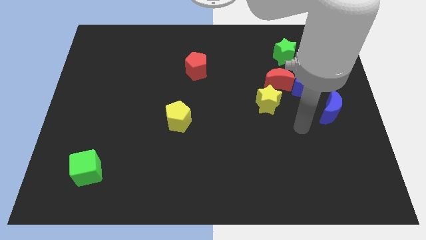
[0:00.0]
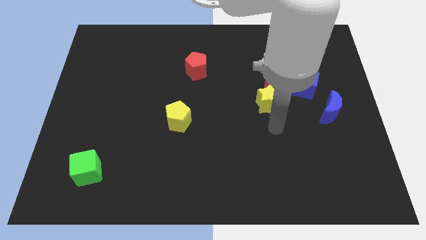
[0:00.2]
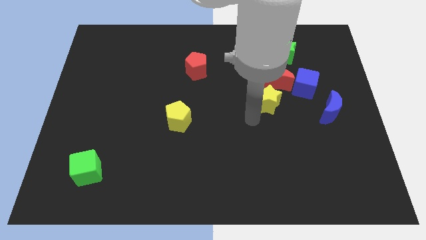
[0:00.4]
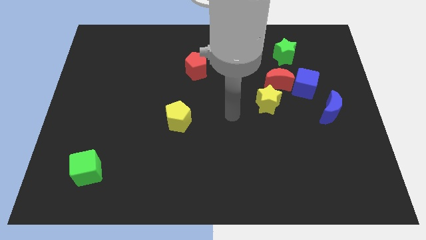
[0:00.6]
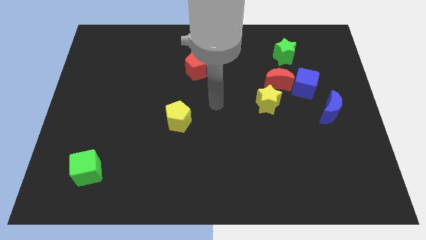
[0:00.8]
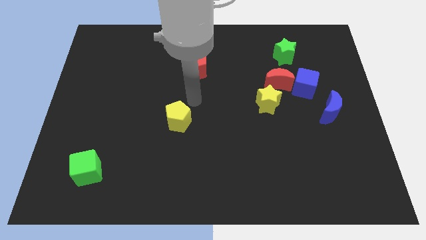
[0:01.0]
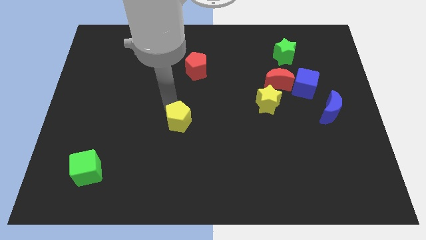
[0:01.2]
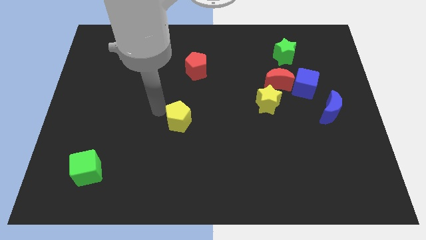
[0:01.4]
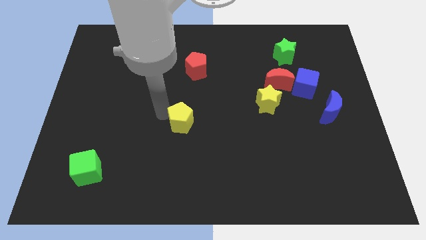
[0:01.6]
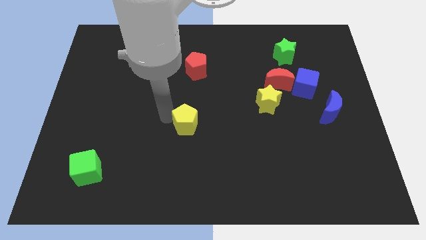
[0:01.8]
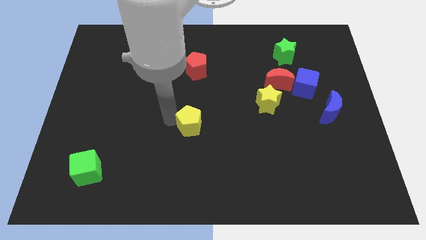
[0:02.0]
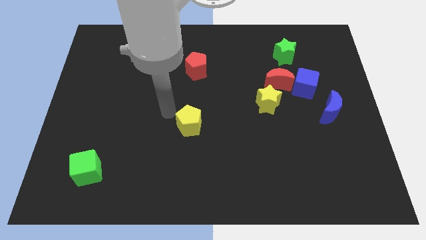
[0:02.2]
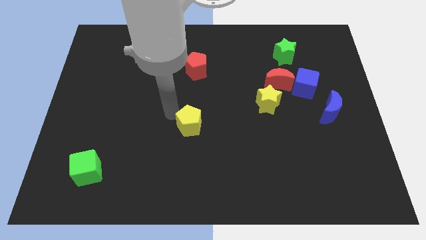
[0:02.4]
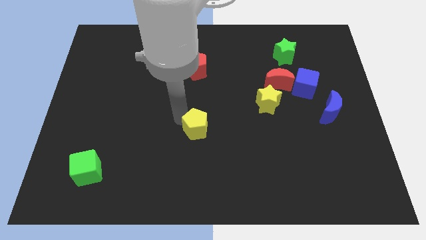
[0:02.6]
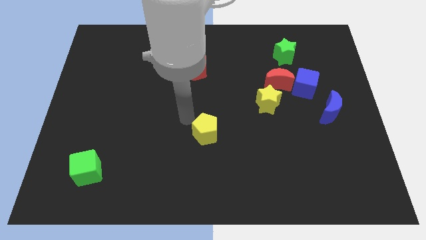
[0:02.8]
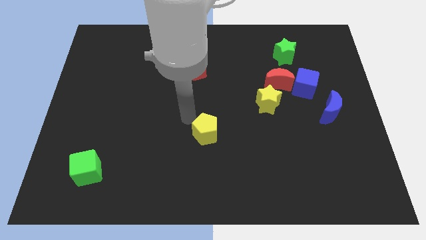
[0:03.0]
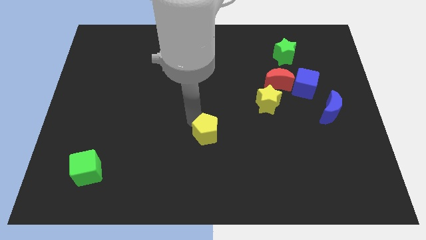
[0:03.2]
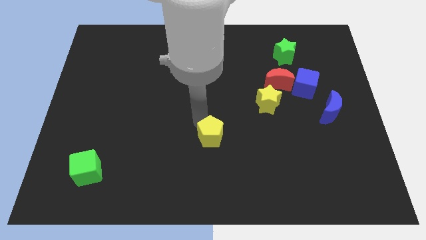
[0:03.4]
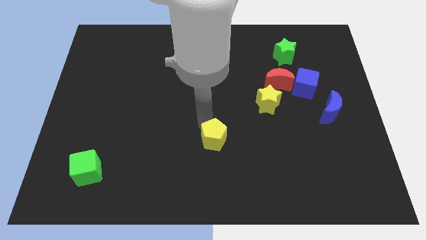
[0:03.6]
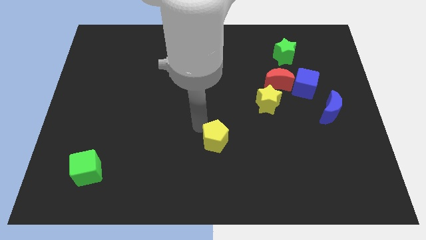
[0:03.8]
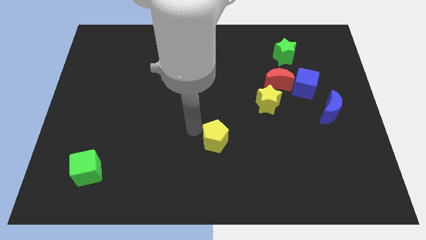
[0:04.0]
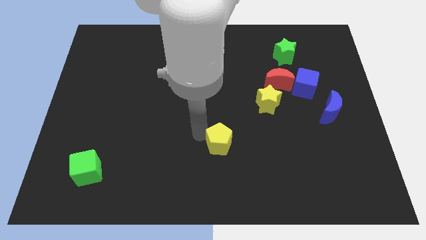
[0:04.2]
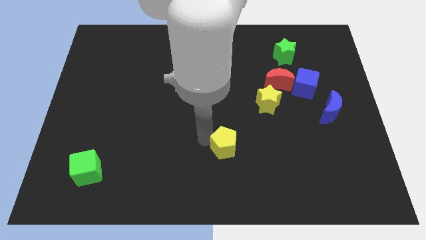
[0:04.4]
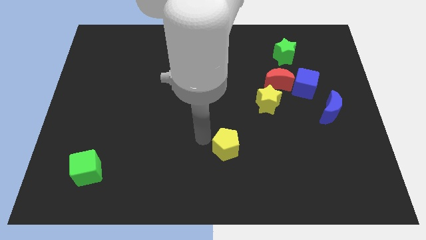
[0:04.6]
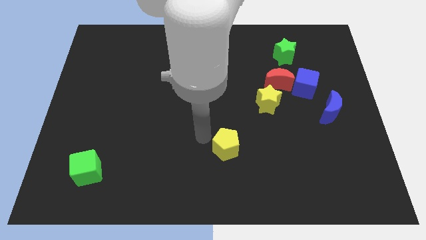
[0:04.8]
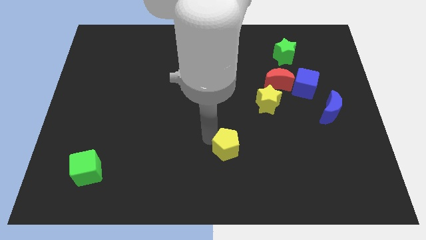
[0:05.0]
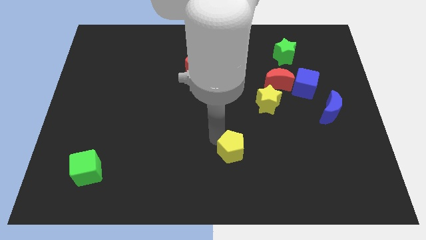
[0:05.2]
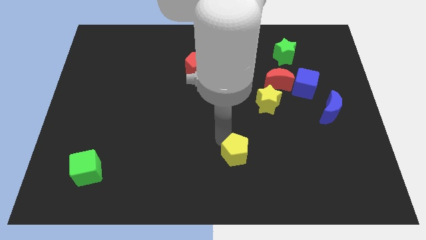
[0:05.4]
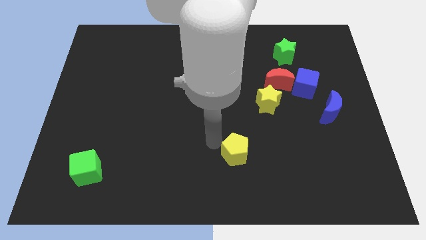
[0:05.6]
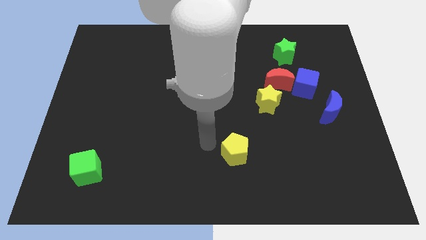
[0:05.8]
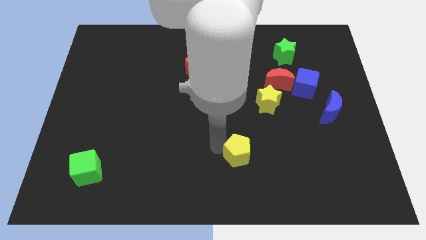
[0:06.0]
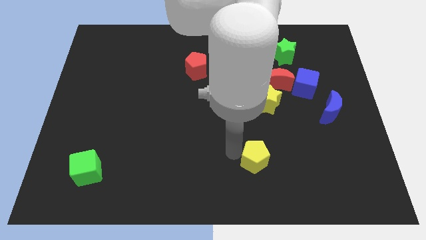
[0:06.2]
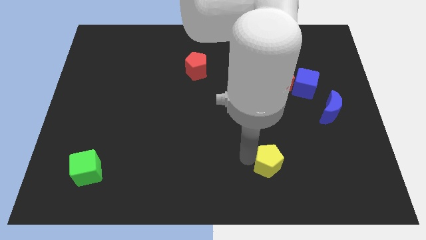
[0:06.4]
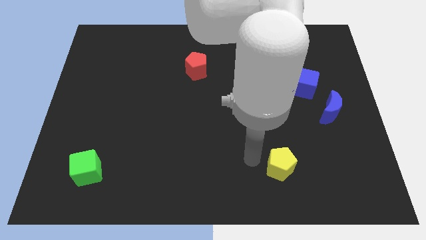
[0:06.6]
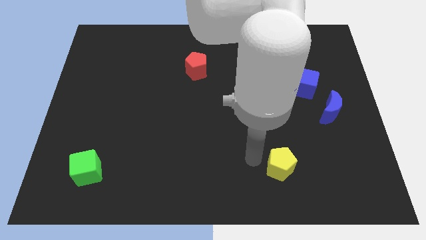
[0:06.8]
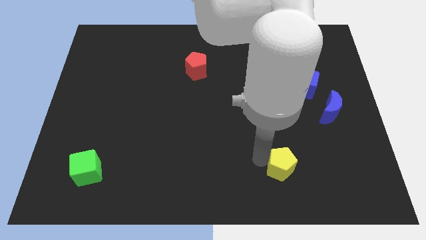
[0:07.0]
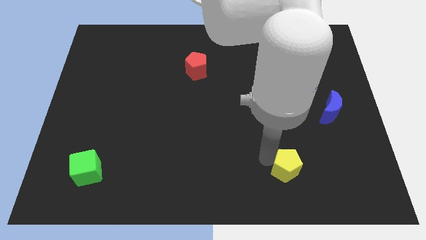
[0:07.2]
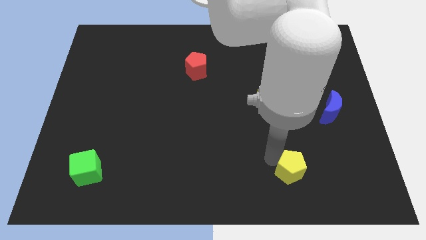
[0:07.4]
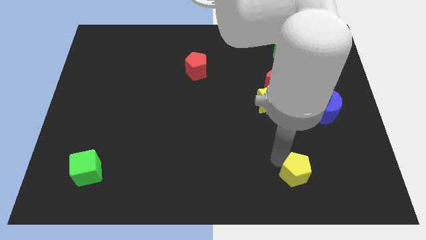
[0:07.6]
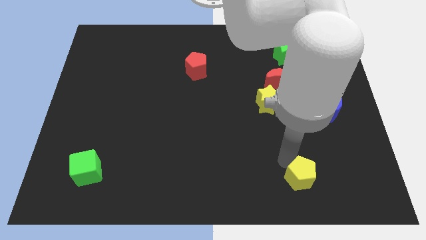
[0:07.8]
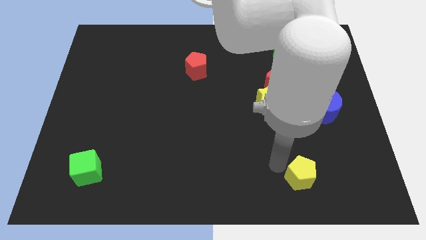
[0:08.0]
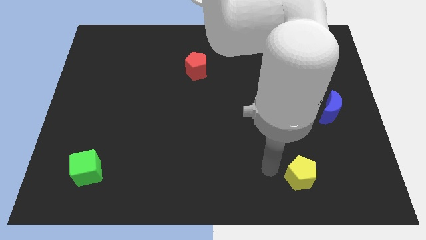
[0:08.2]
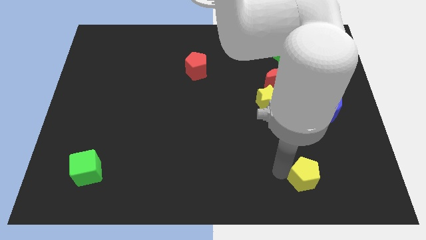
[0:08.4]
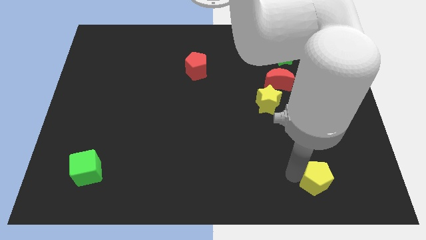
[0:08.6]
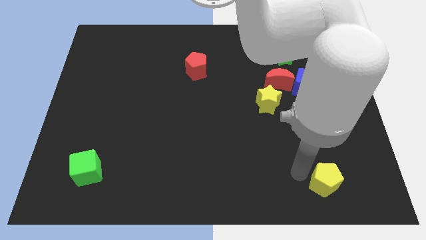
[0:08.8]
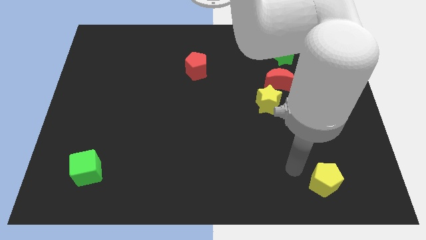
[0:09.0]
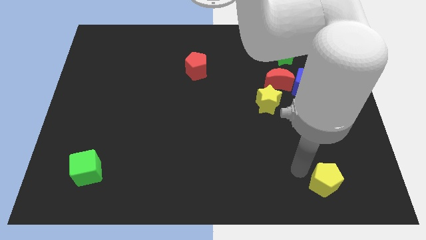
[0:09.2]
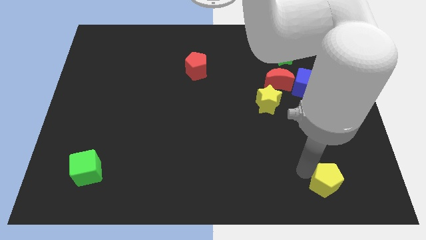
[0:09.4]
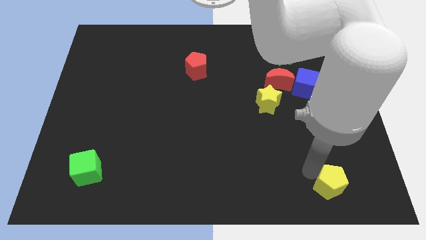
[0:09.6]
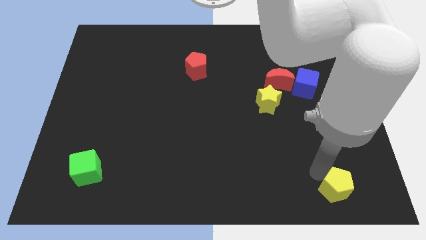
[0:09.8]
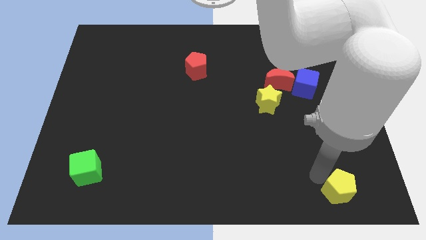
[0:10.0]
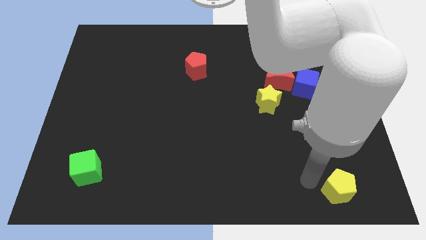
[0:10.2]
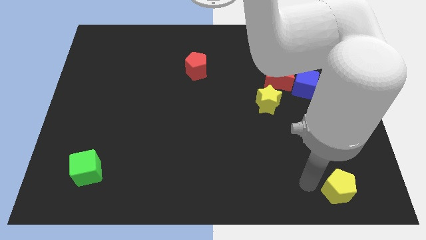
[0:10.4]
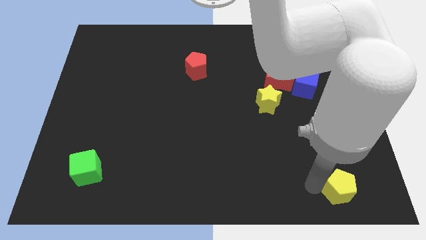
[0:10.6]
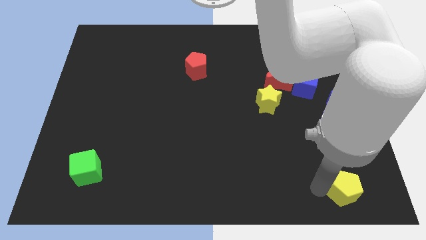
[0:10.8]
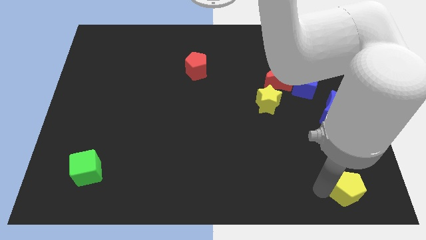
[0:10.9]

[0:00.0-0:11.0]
move the yellow pentagon to the lower right corner

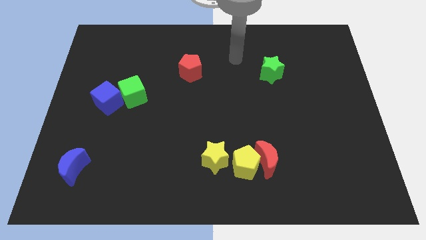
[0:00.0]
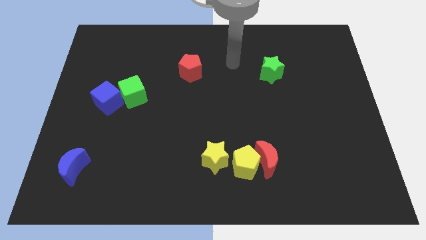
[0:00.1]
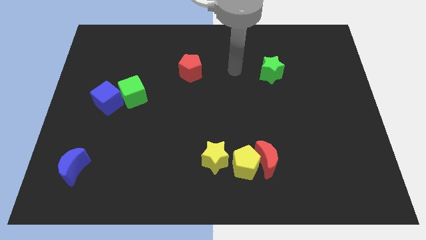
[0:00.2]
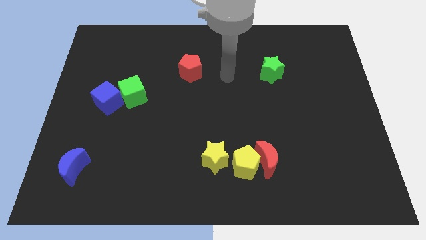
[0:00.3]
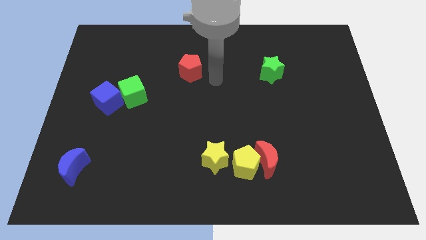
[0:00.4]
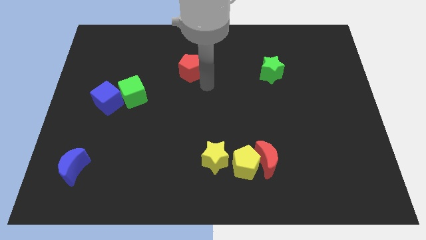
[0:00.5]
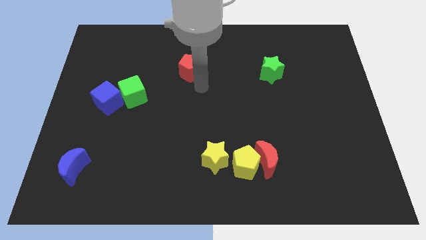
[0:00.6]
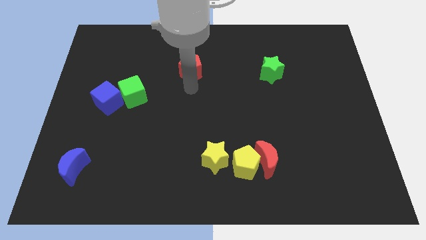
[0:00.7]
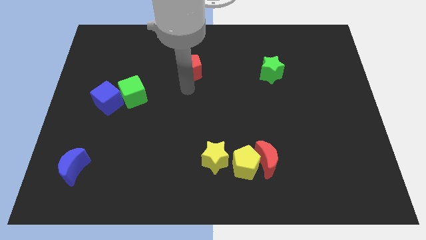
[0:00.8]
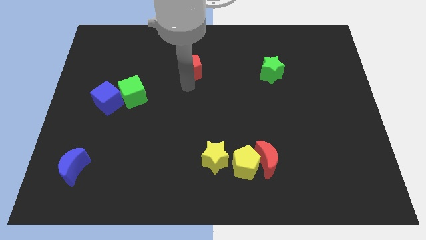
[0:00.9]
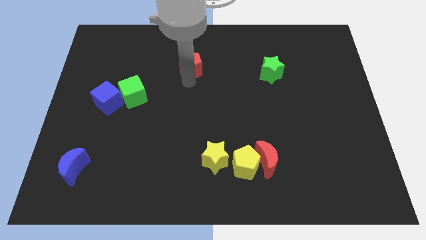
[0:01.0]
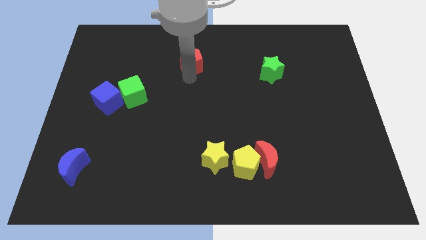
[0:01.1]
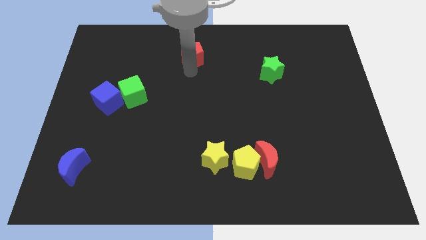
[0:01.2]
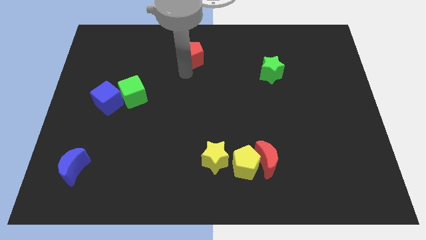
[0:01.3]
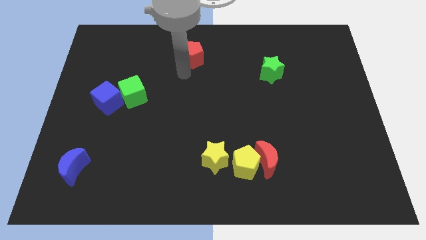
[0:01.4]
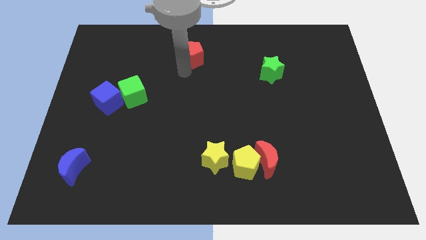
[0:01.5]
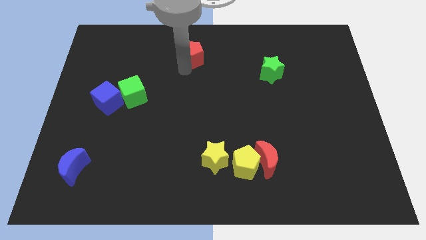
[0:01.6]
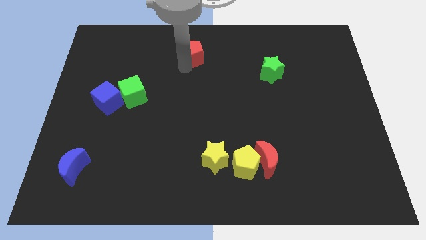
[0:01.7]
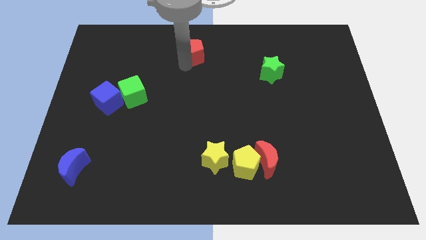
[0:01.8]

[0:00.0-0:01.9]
push the red pentagon to the towards your base

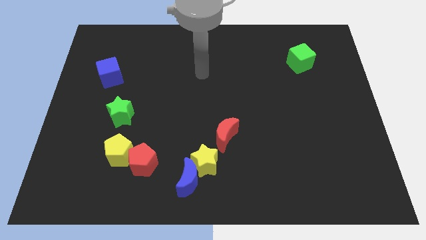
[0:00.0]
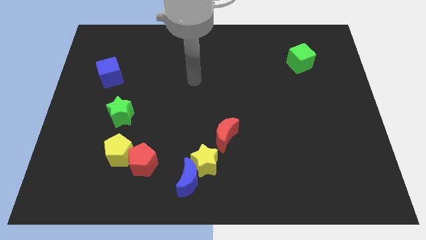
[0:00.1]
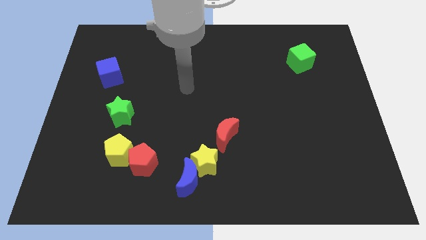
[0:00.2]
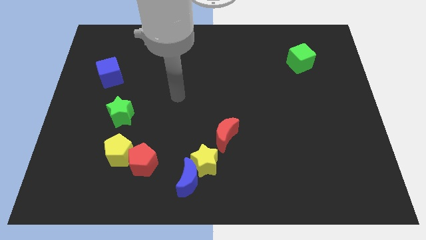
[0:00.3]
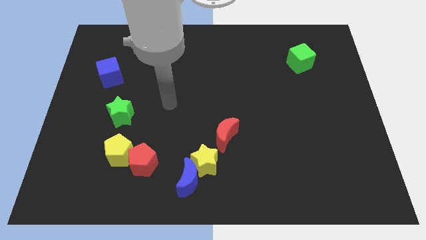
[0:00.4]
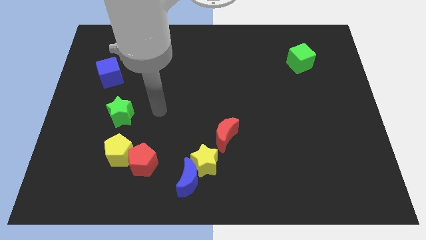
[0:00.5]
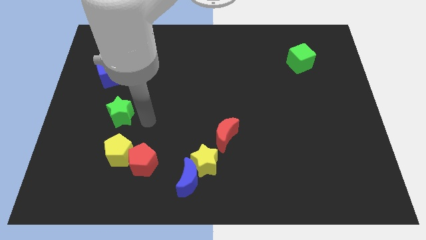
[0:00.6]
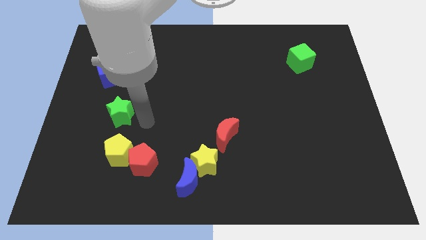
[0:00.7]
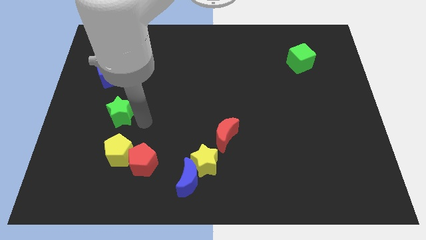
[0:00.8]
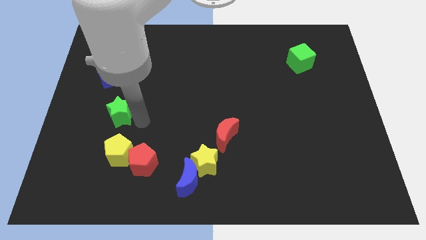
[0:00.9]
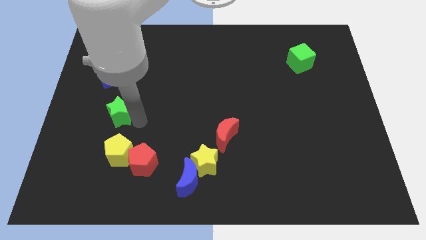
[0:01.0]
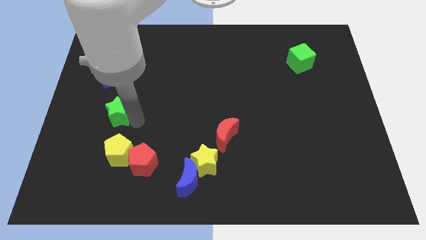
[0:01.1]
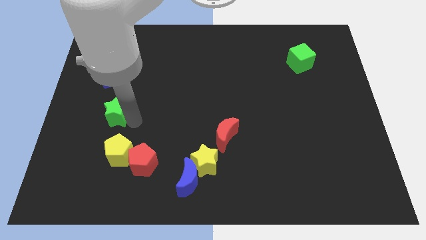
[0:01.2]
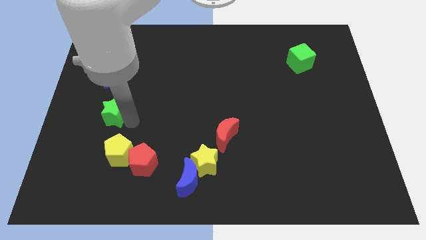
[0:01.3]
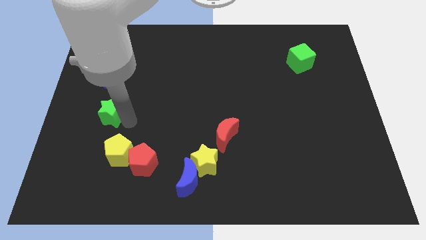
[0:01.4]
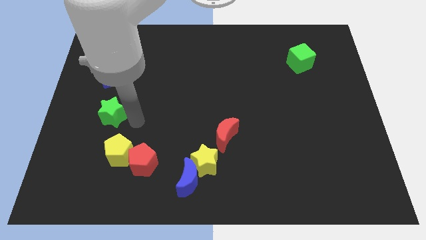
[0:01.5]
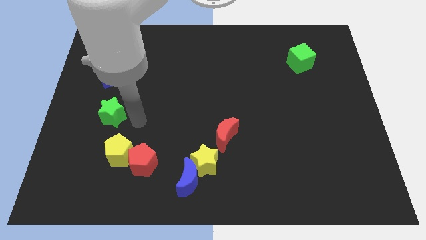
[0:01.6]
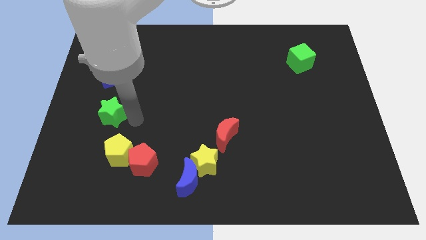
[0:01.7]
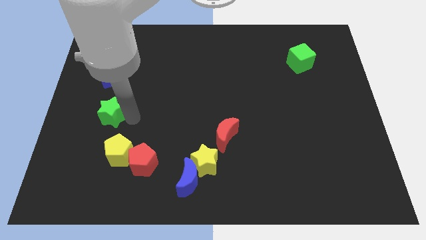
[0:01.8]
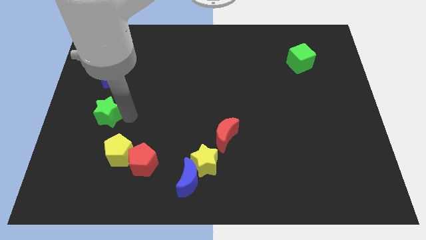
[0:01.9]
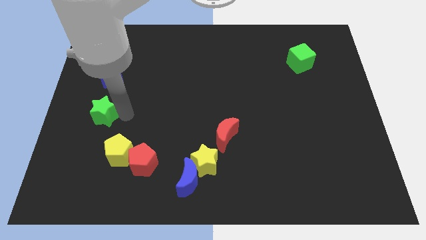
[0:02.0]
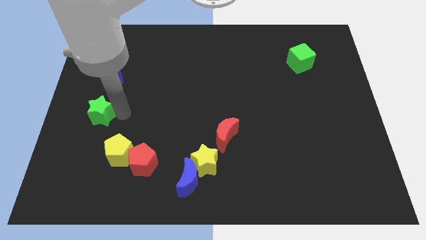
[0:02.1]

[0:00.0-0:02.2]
slide the green star to the center left
